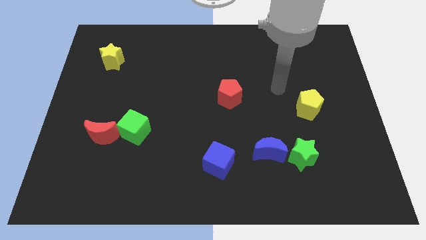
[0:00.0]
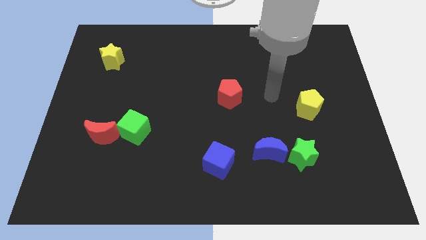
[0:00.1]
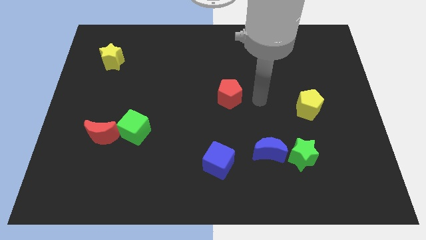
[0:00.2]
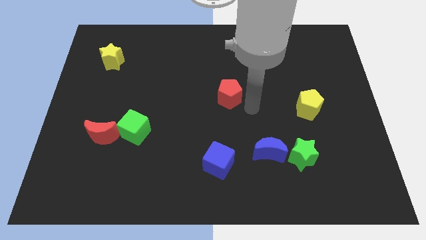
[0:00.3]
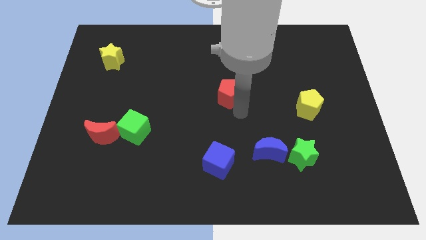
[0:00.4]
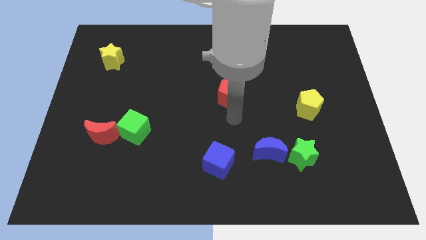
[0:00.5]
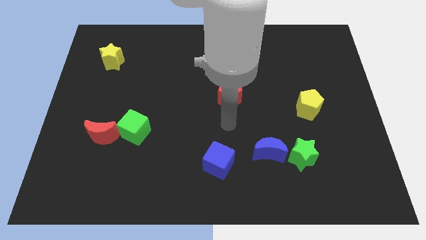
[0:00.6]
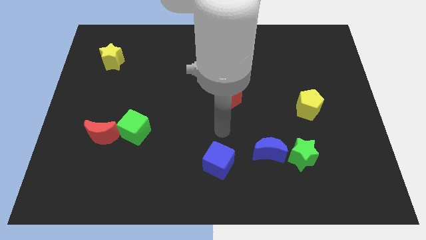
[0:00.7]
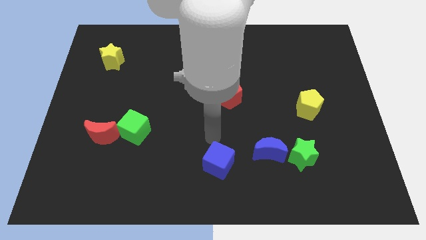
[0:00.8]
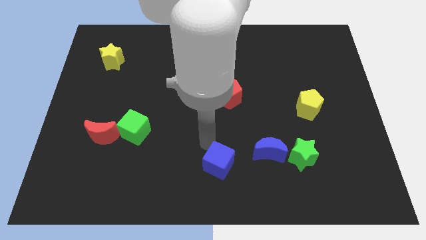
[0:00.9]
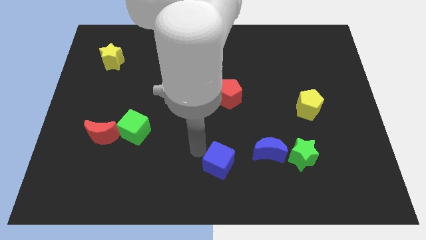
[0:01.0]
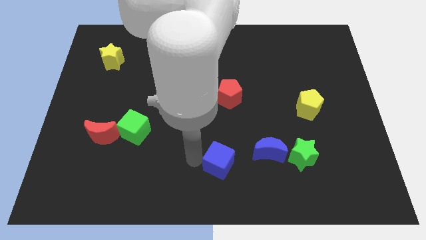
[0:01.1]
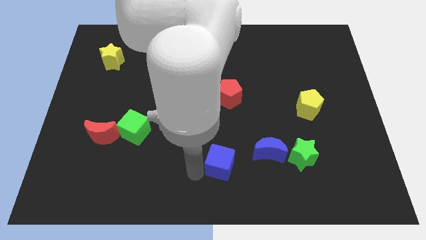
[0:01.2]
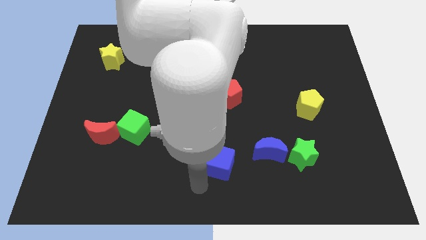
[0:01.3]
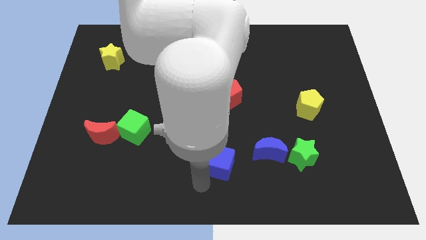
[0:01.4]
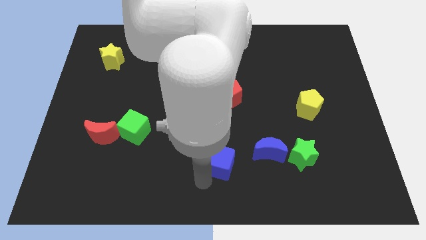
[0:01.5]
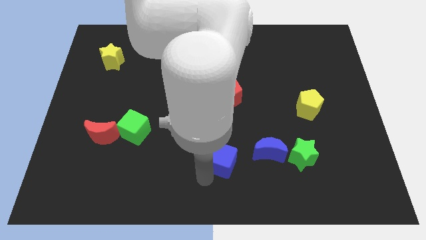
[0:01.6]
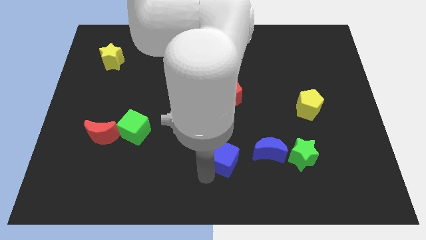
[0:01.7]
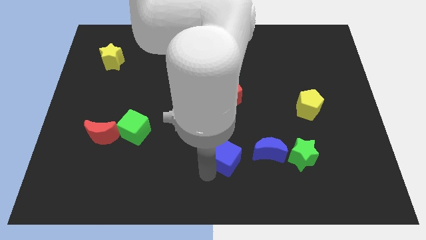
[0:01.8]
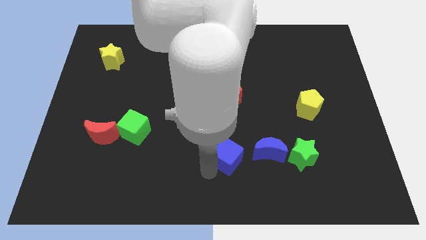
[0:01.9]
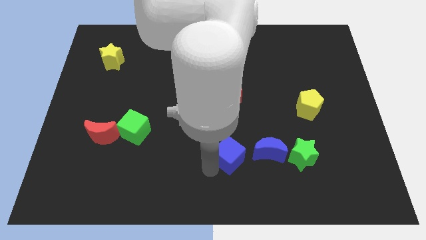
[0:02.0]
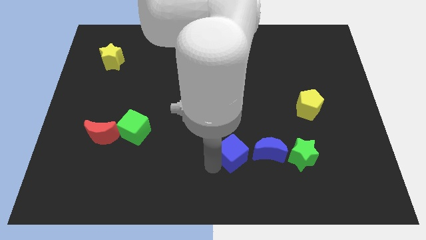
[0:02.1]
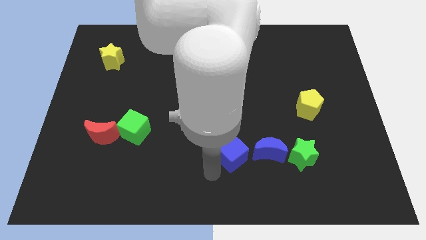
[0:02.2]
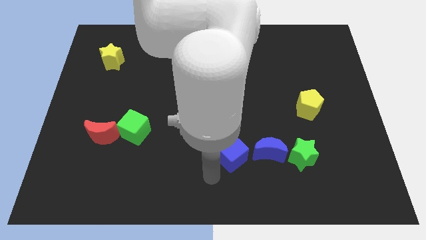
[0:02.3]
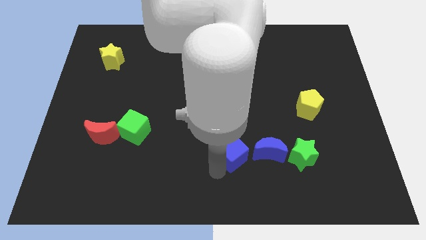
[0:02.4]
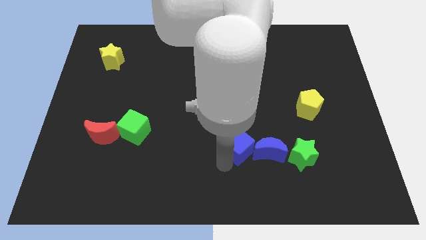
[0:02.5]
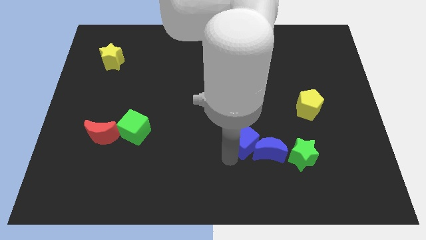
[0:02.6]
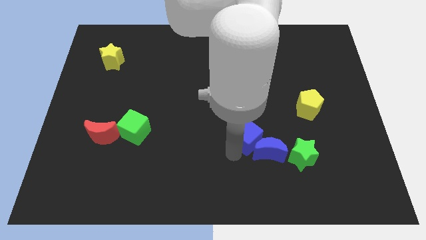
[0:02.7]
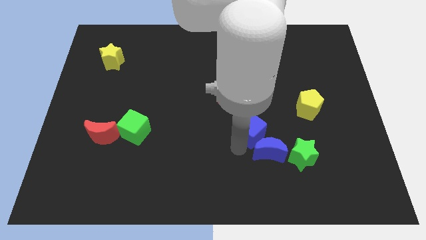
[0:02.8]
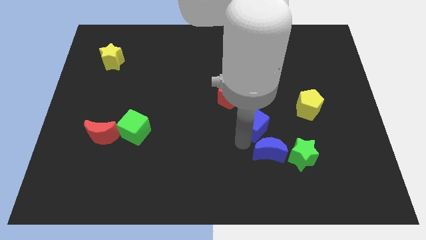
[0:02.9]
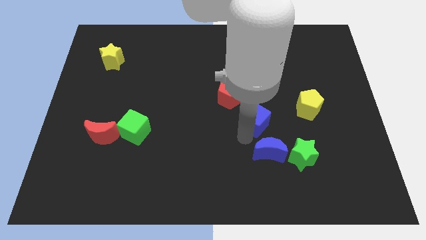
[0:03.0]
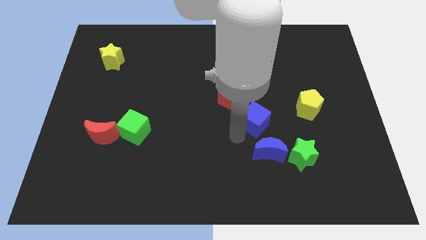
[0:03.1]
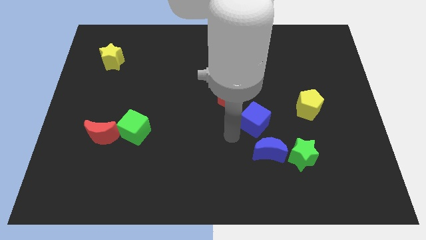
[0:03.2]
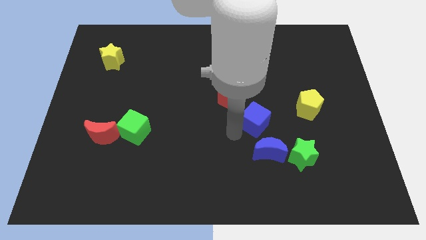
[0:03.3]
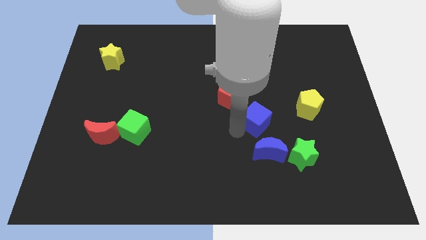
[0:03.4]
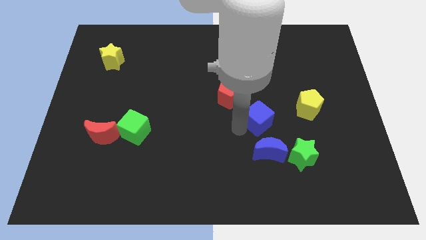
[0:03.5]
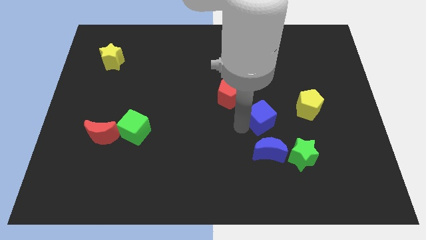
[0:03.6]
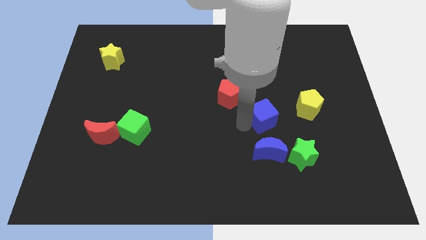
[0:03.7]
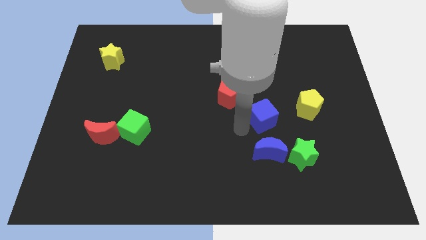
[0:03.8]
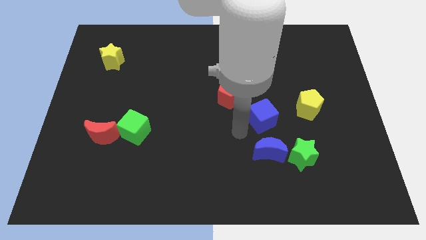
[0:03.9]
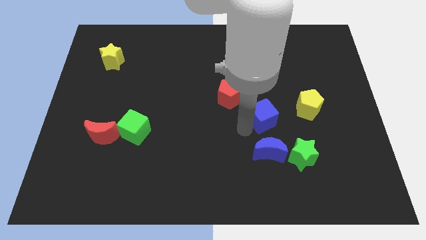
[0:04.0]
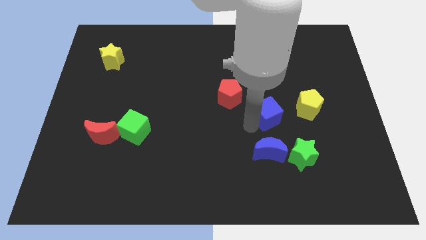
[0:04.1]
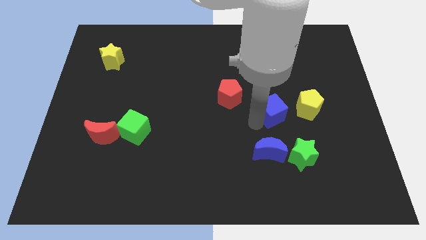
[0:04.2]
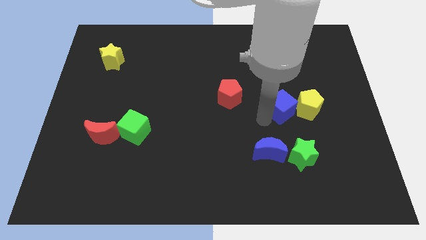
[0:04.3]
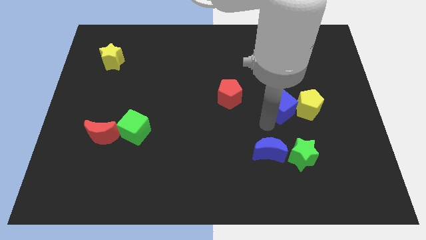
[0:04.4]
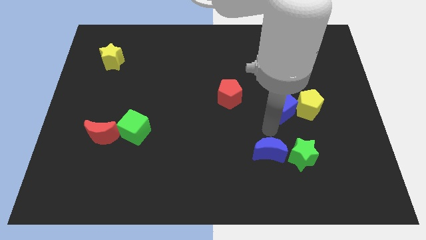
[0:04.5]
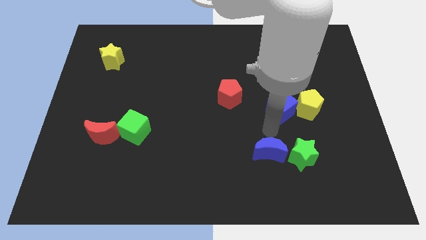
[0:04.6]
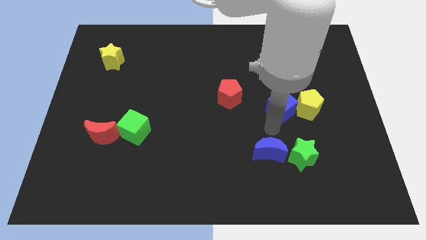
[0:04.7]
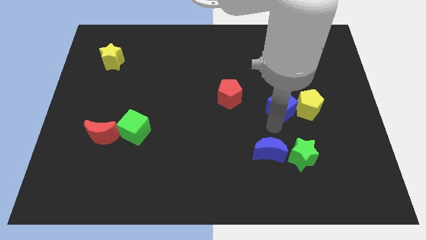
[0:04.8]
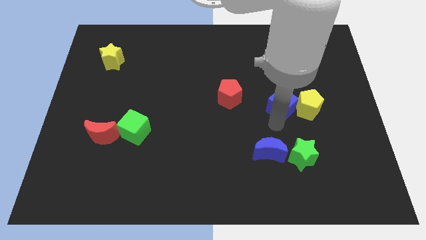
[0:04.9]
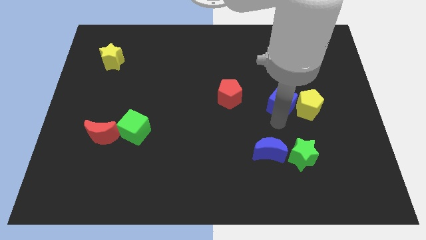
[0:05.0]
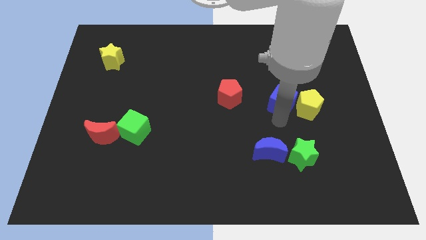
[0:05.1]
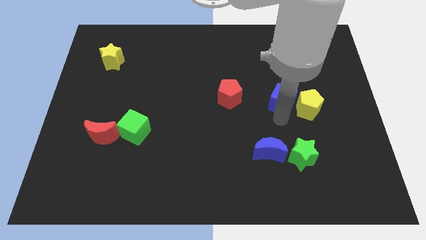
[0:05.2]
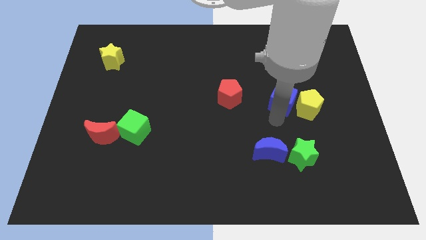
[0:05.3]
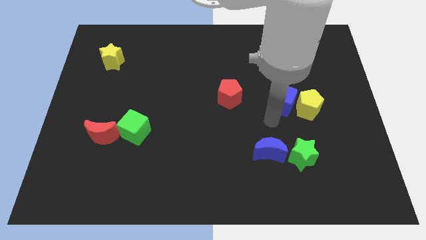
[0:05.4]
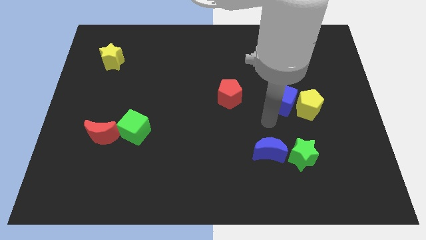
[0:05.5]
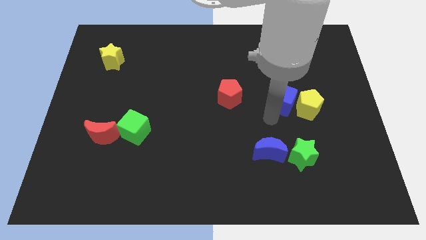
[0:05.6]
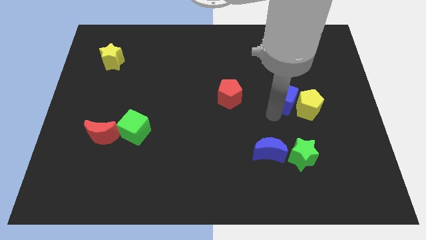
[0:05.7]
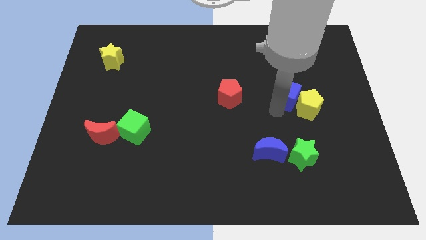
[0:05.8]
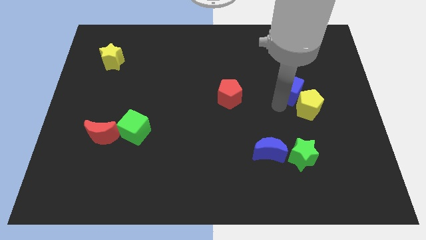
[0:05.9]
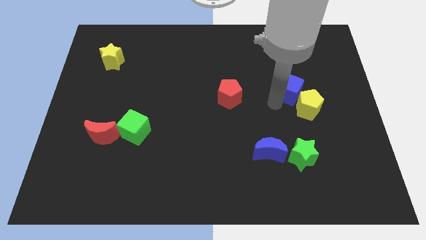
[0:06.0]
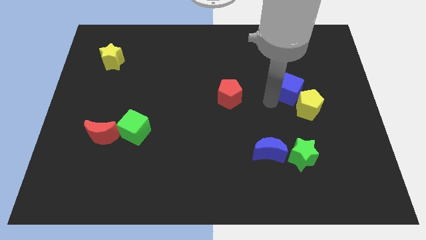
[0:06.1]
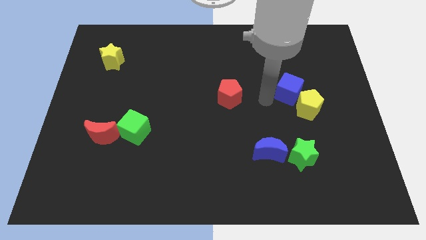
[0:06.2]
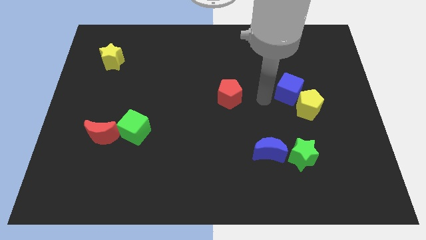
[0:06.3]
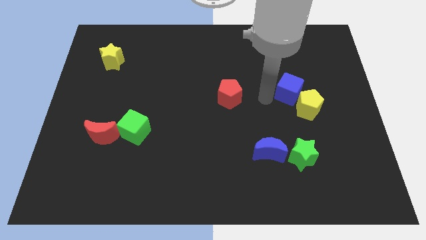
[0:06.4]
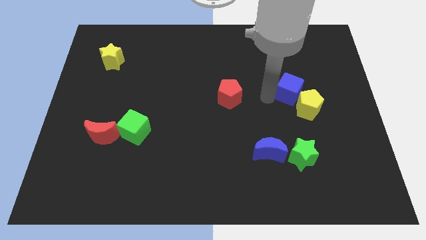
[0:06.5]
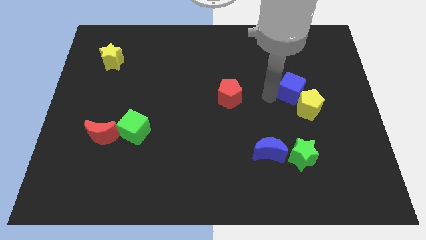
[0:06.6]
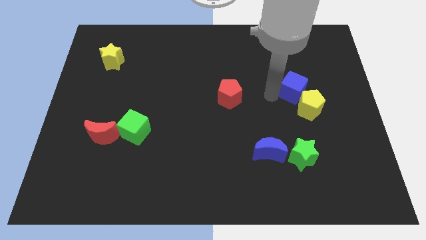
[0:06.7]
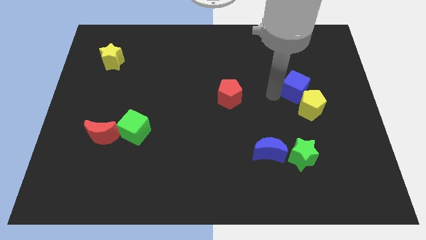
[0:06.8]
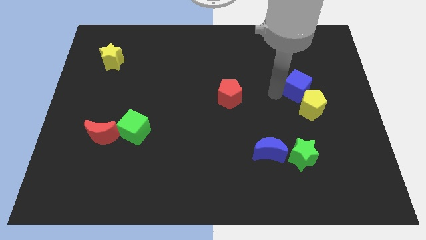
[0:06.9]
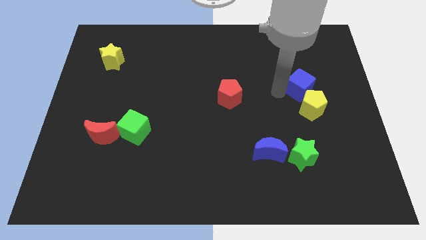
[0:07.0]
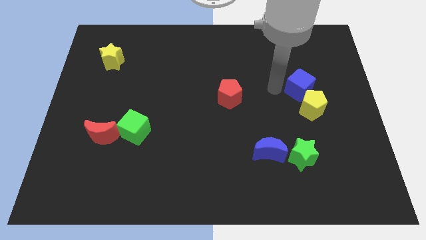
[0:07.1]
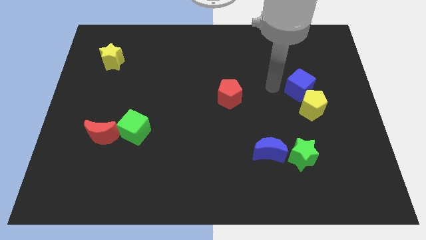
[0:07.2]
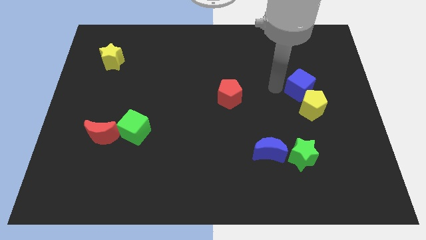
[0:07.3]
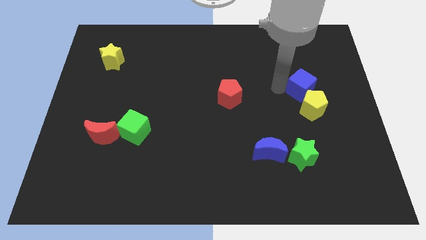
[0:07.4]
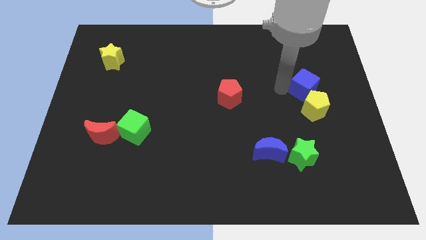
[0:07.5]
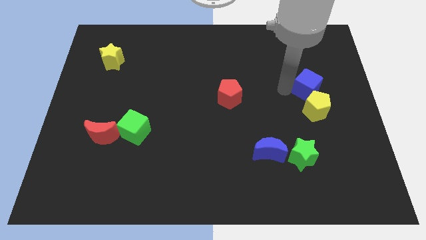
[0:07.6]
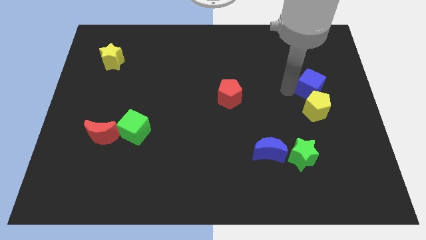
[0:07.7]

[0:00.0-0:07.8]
move the blue cube diagonally up and to the right of the yellow pentagon
